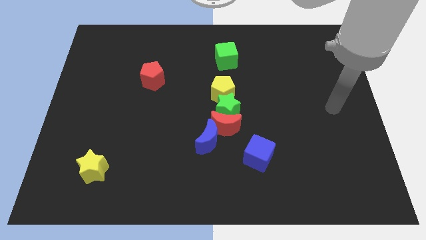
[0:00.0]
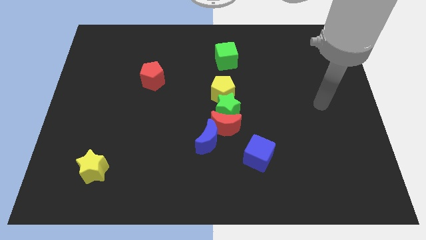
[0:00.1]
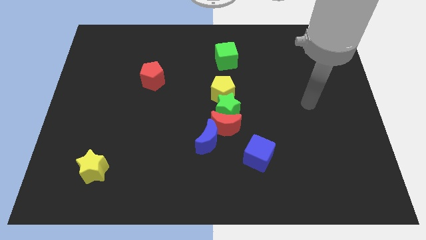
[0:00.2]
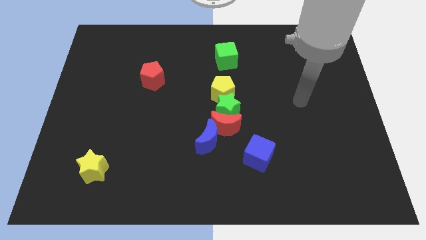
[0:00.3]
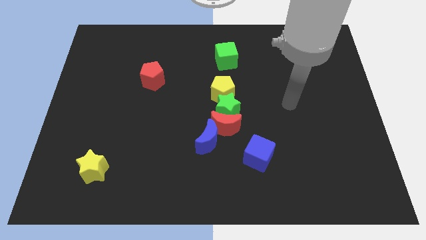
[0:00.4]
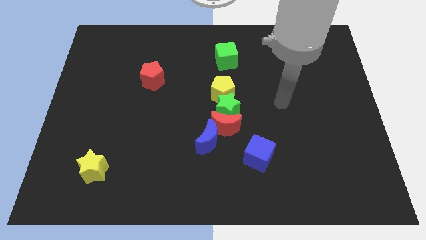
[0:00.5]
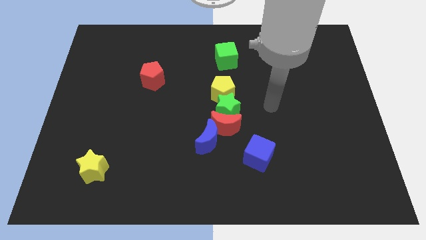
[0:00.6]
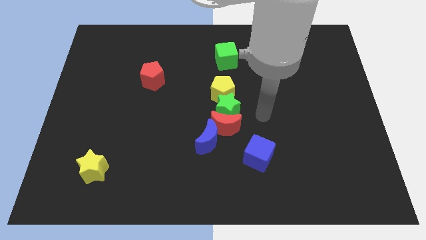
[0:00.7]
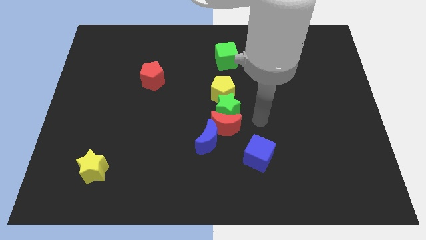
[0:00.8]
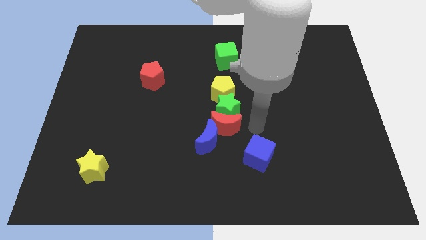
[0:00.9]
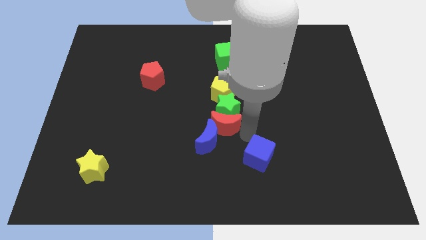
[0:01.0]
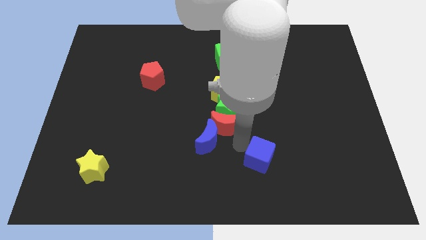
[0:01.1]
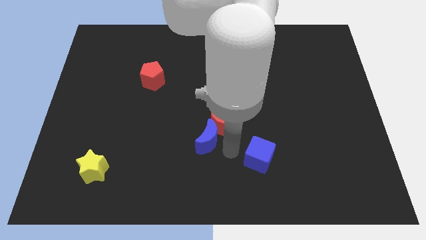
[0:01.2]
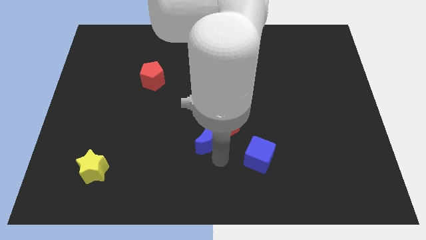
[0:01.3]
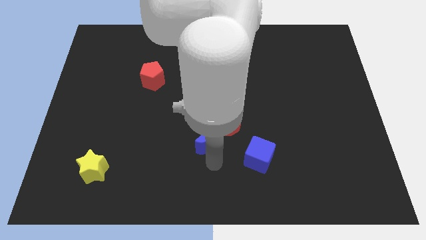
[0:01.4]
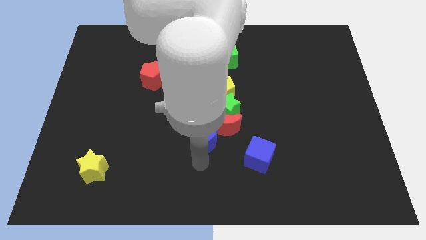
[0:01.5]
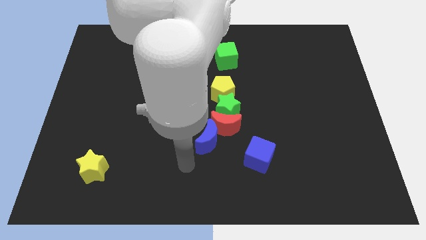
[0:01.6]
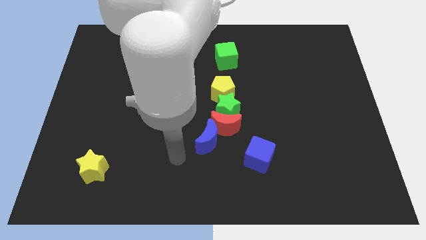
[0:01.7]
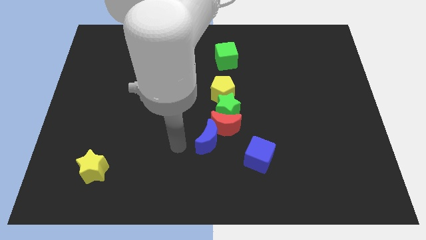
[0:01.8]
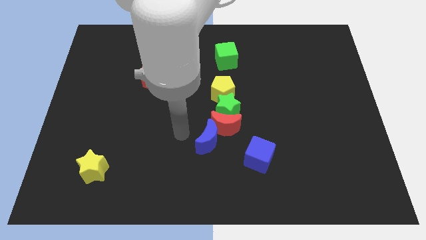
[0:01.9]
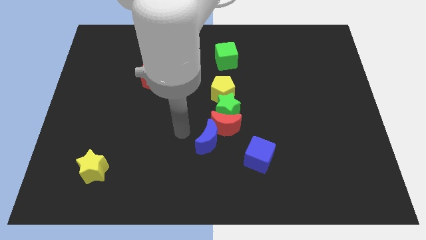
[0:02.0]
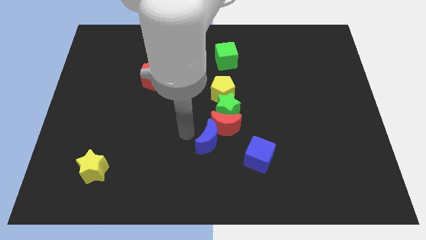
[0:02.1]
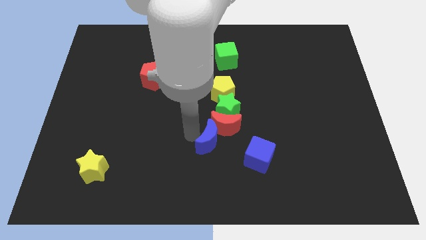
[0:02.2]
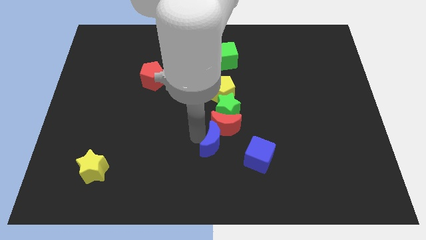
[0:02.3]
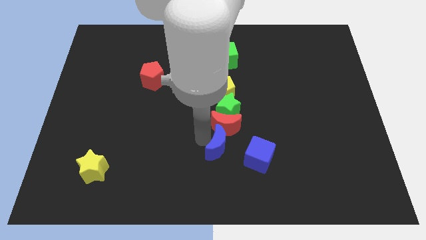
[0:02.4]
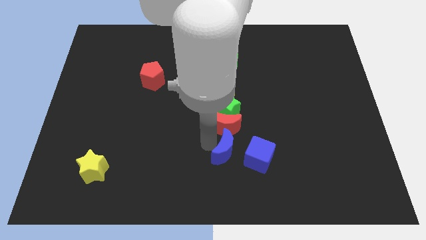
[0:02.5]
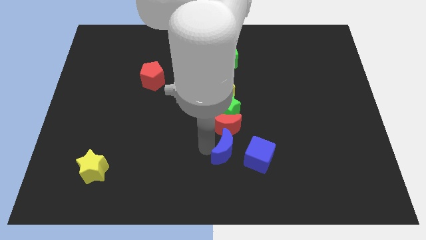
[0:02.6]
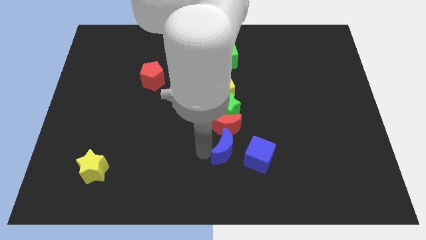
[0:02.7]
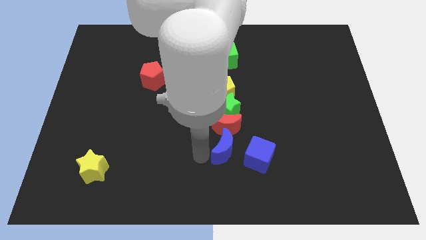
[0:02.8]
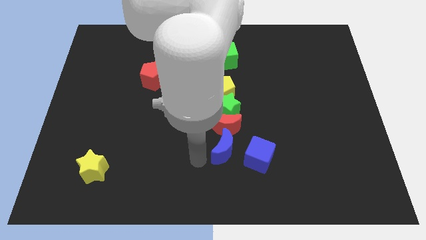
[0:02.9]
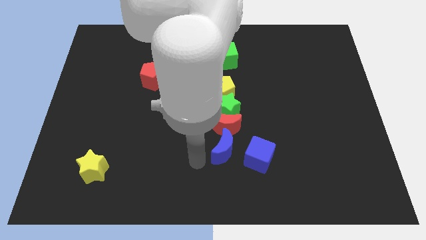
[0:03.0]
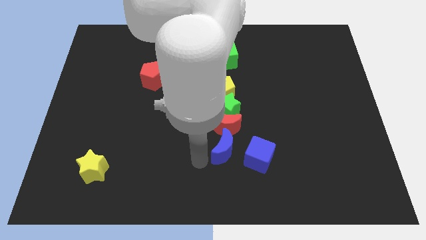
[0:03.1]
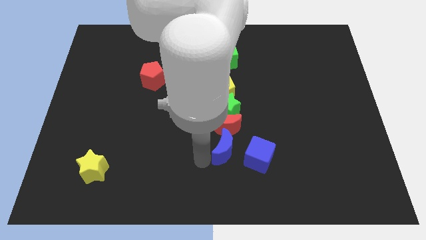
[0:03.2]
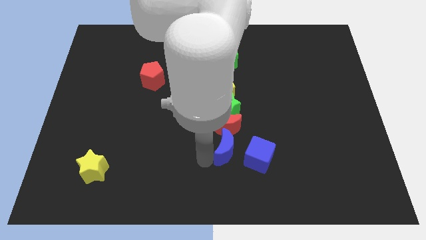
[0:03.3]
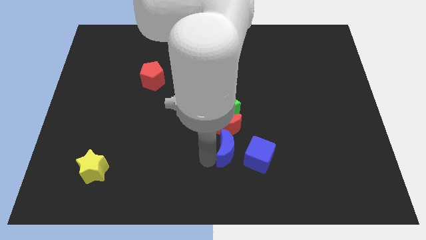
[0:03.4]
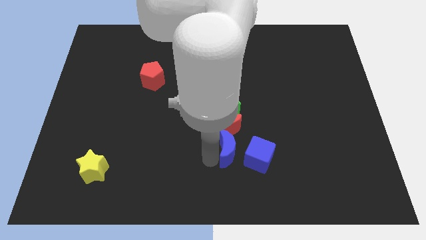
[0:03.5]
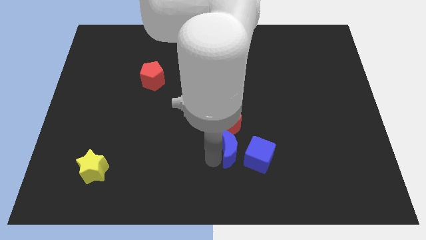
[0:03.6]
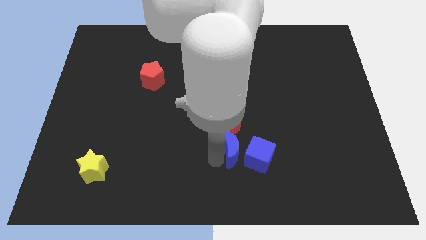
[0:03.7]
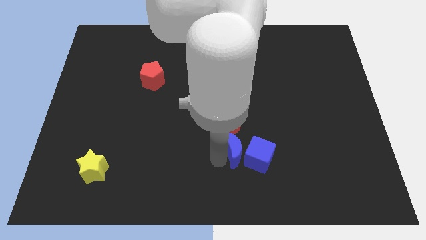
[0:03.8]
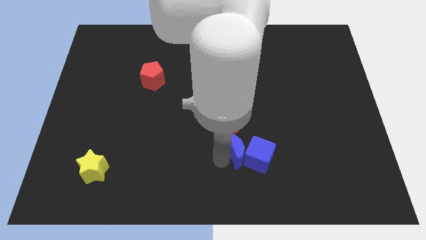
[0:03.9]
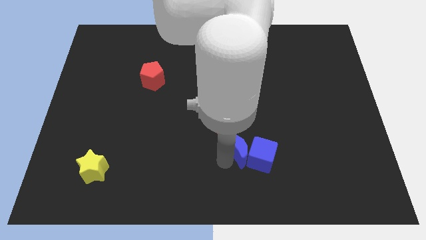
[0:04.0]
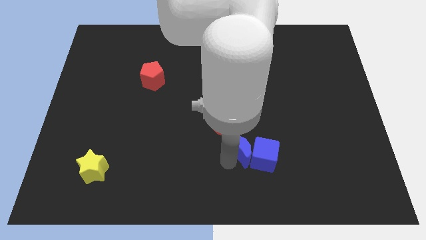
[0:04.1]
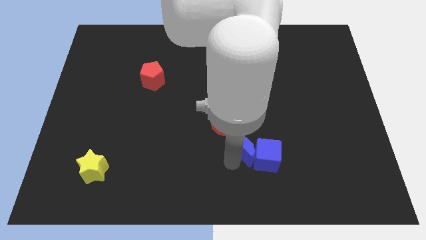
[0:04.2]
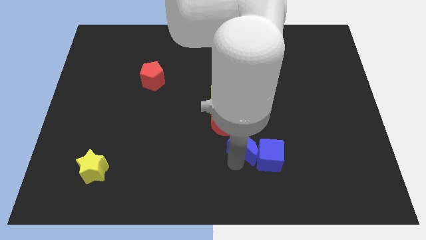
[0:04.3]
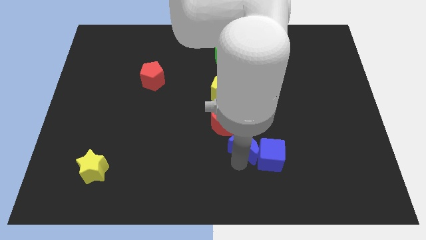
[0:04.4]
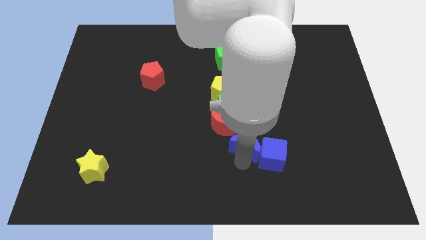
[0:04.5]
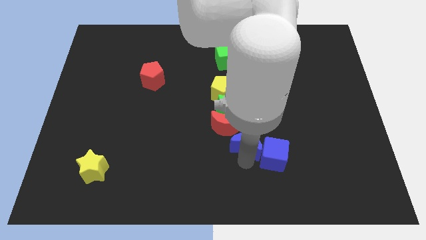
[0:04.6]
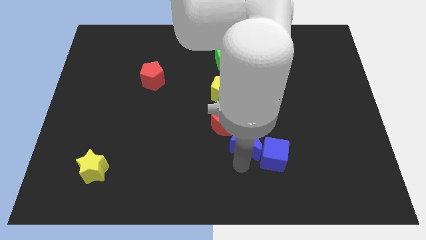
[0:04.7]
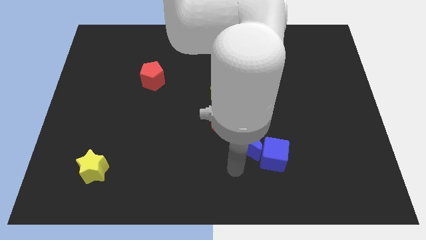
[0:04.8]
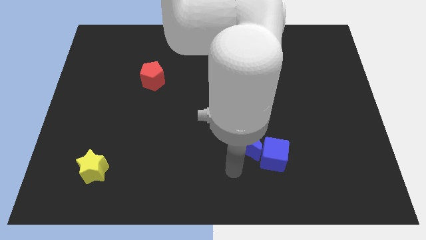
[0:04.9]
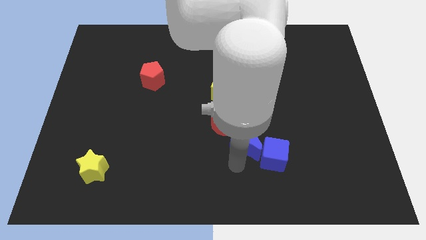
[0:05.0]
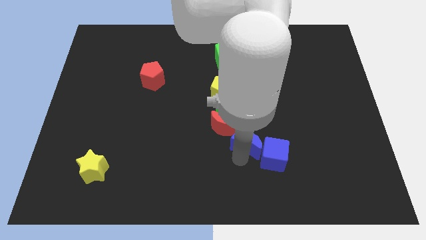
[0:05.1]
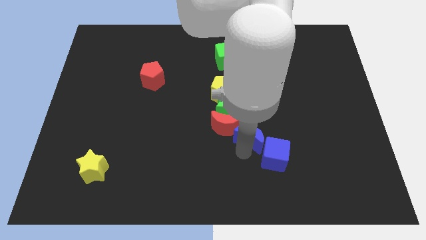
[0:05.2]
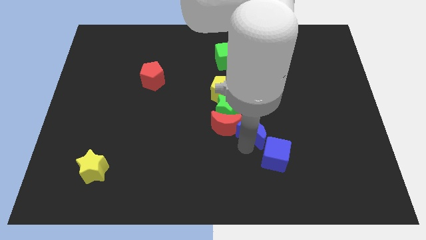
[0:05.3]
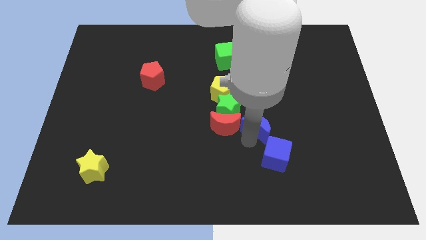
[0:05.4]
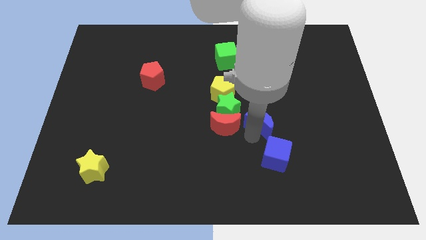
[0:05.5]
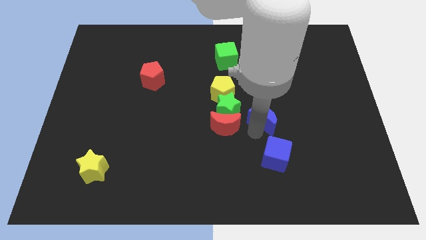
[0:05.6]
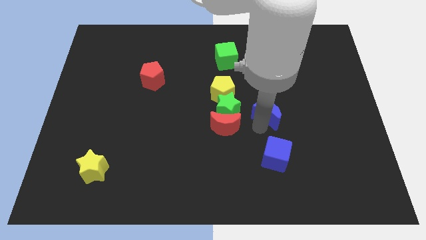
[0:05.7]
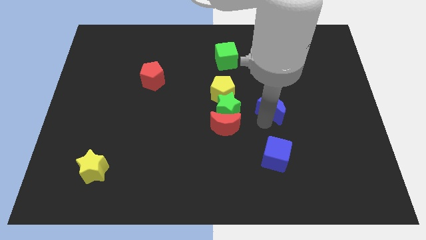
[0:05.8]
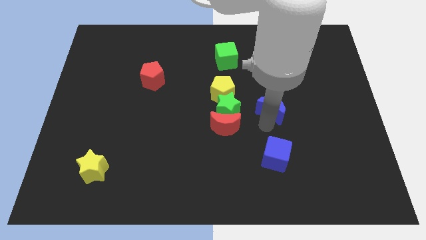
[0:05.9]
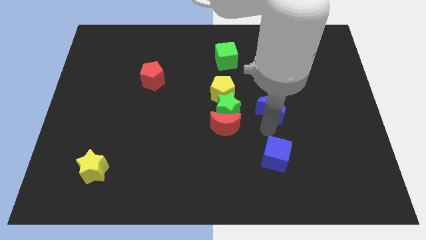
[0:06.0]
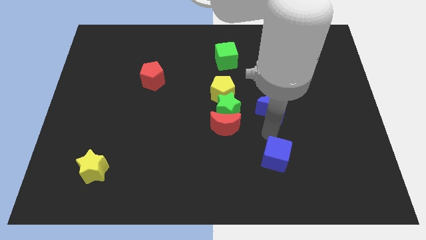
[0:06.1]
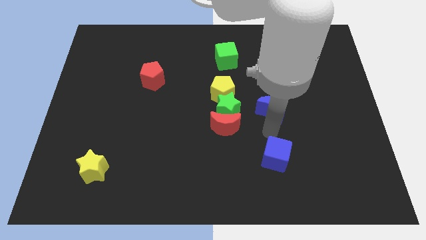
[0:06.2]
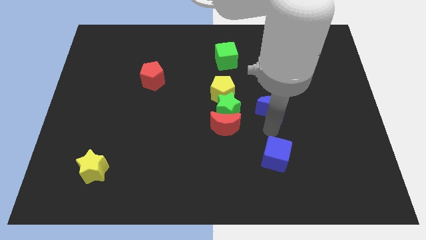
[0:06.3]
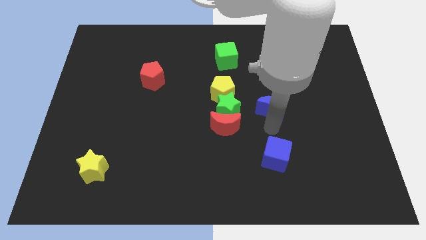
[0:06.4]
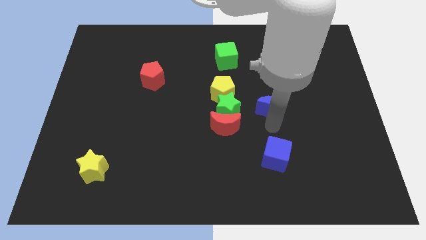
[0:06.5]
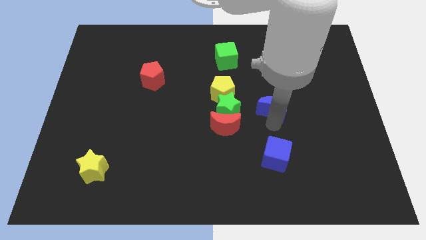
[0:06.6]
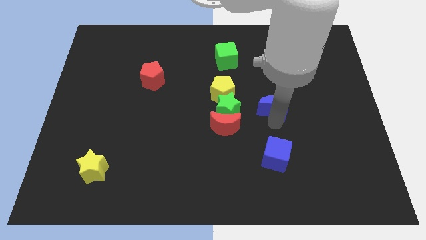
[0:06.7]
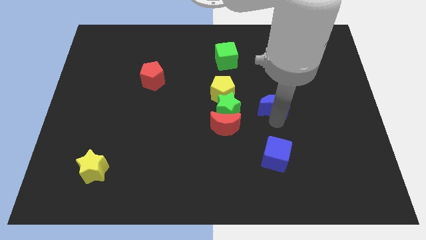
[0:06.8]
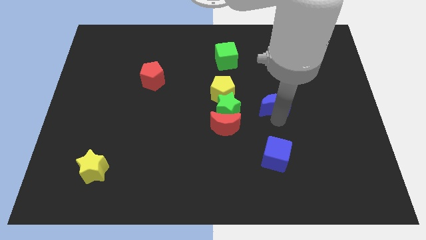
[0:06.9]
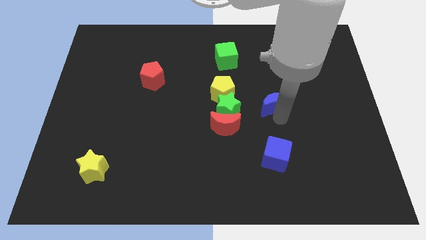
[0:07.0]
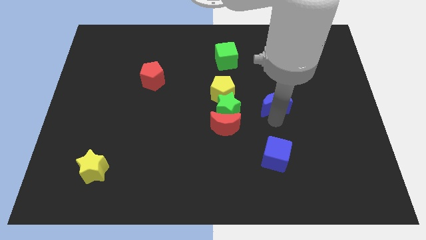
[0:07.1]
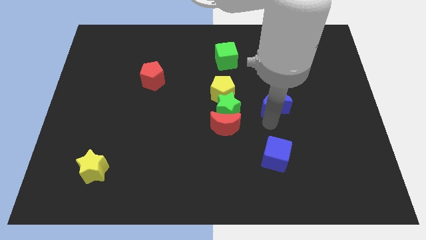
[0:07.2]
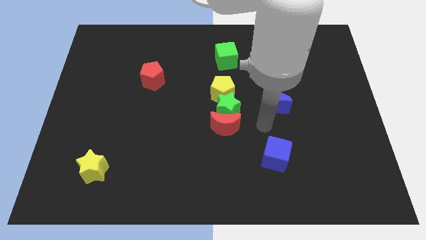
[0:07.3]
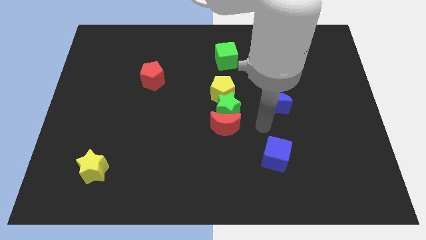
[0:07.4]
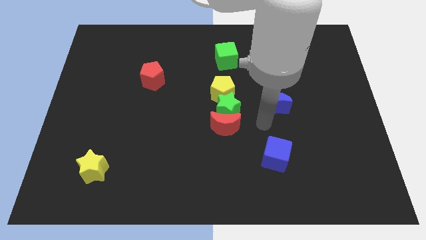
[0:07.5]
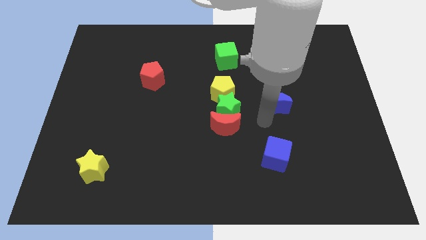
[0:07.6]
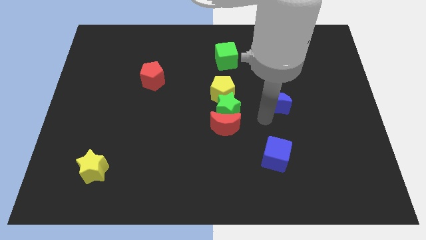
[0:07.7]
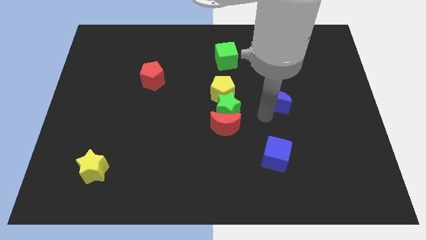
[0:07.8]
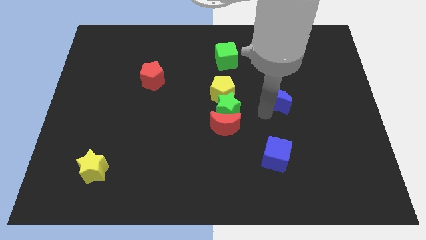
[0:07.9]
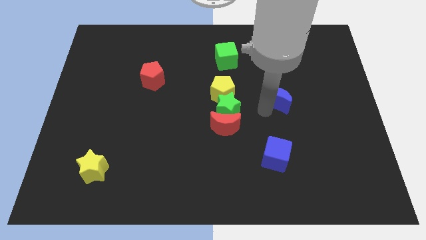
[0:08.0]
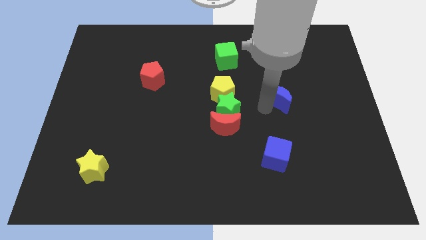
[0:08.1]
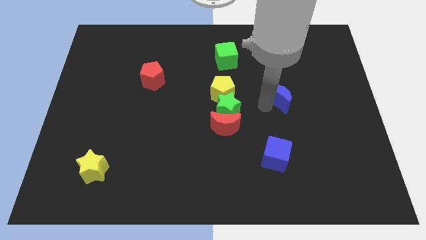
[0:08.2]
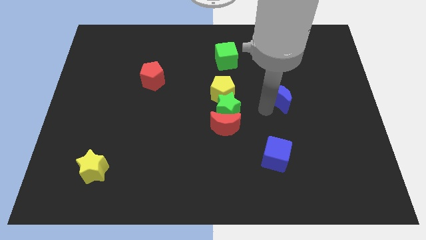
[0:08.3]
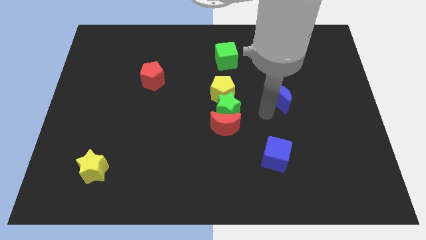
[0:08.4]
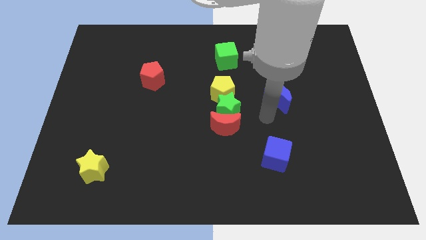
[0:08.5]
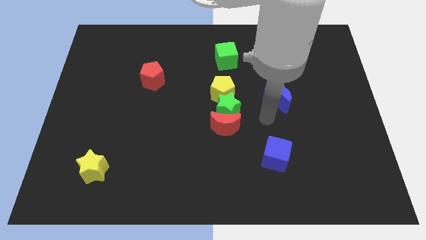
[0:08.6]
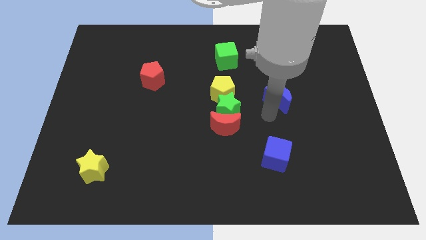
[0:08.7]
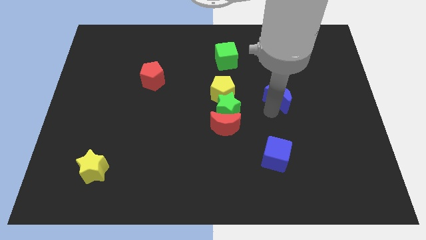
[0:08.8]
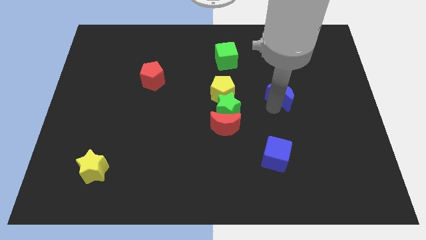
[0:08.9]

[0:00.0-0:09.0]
slide the blue moon upwards and right diagonally
